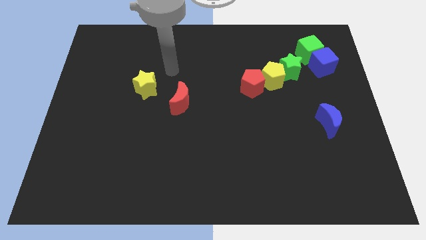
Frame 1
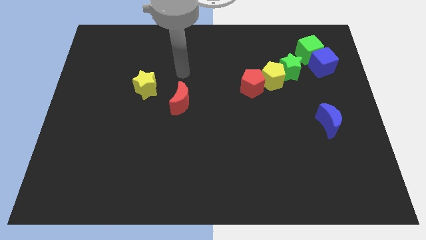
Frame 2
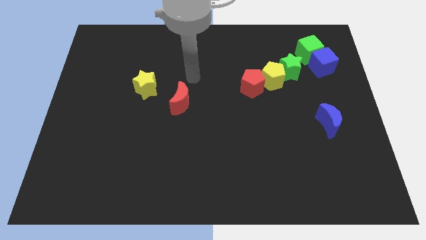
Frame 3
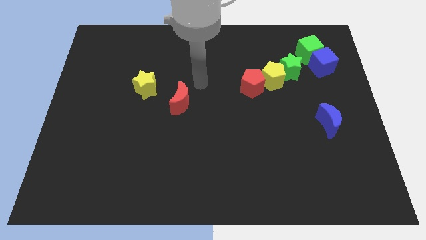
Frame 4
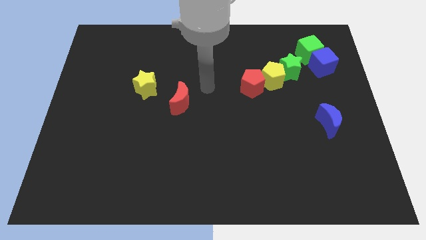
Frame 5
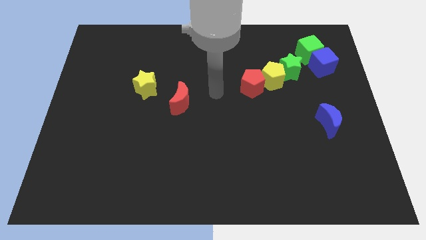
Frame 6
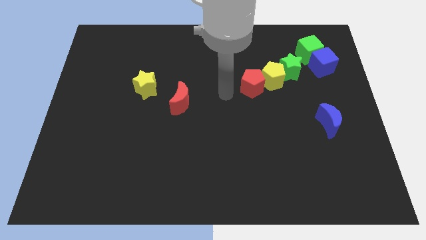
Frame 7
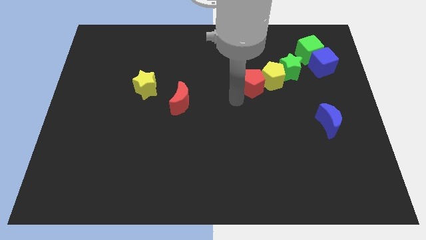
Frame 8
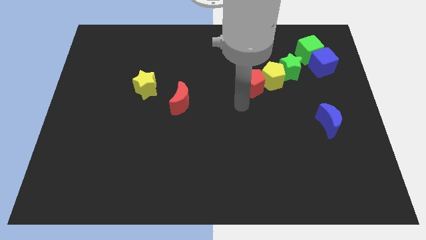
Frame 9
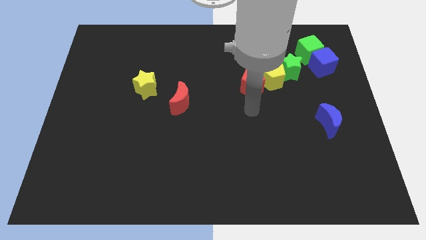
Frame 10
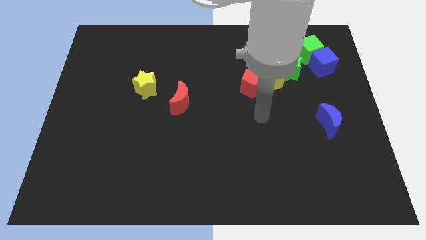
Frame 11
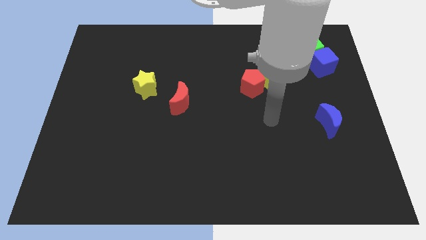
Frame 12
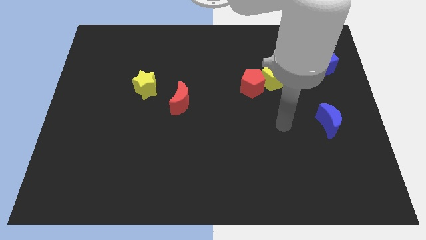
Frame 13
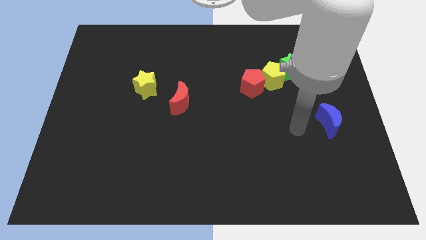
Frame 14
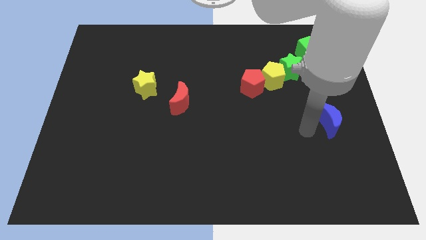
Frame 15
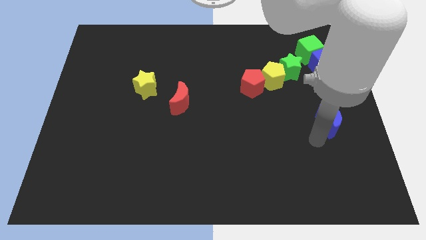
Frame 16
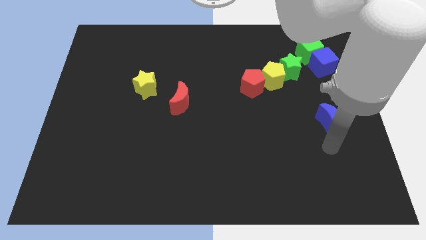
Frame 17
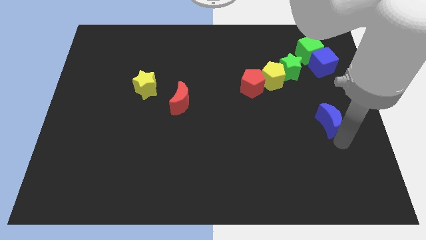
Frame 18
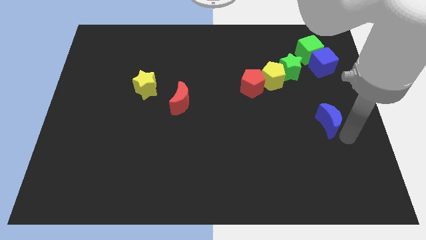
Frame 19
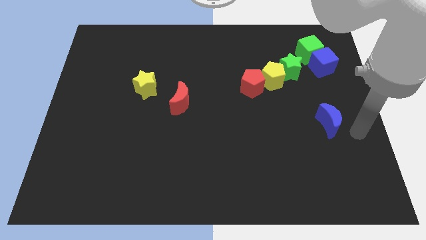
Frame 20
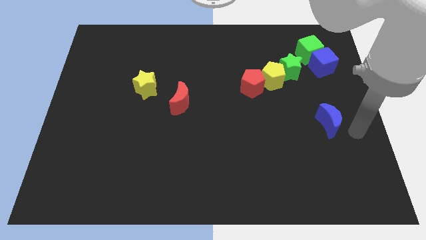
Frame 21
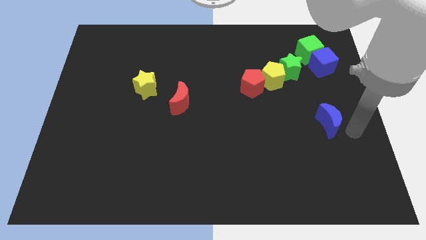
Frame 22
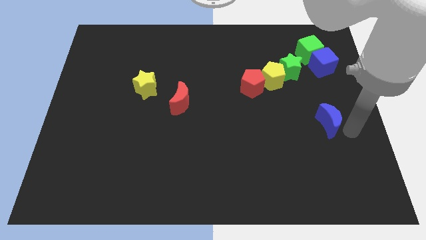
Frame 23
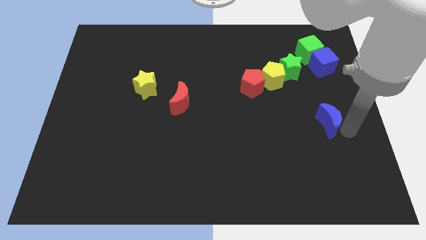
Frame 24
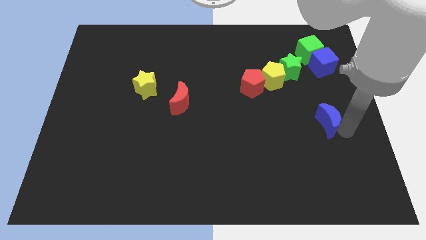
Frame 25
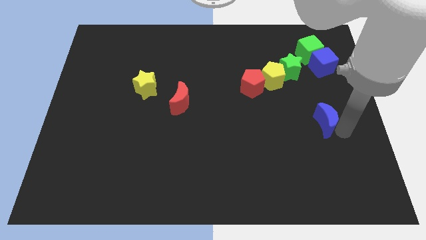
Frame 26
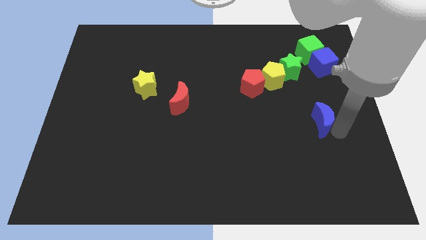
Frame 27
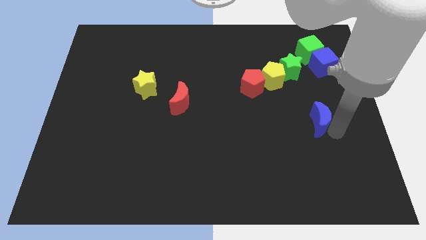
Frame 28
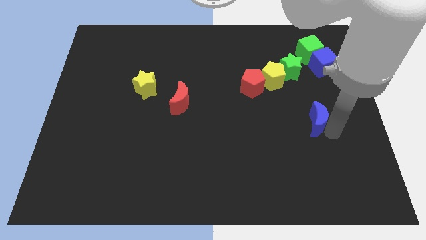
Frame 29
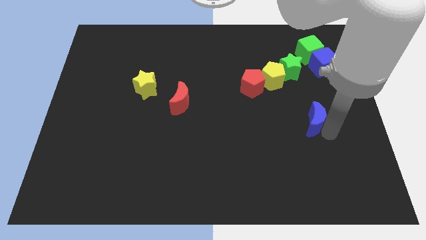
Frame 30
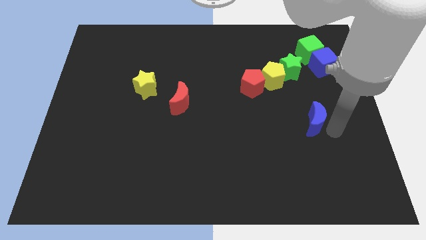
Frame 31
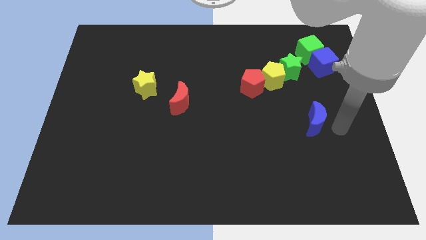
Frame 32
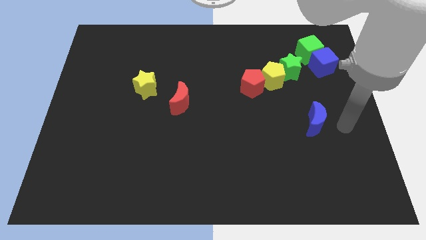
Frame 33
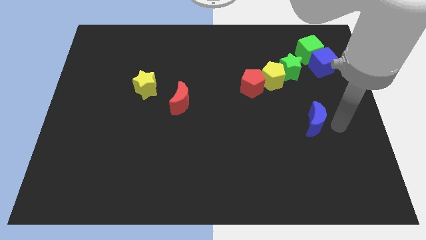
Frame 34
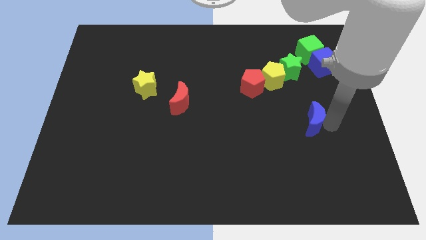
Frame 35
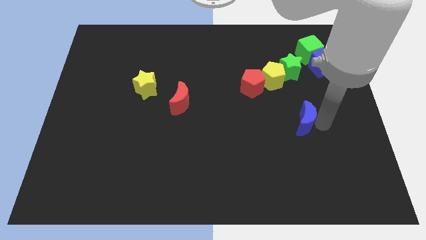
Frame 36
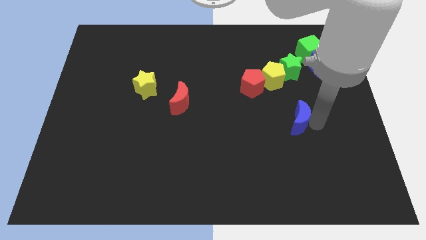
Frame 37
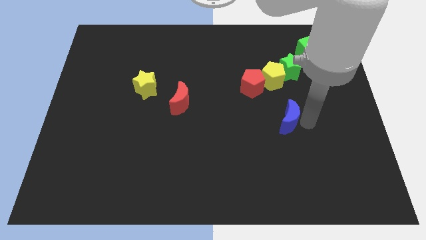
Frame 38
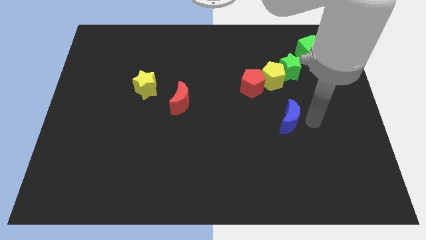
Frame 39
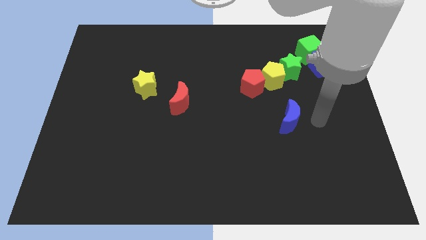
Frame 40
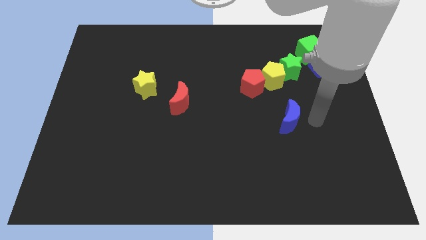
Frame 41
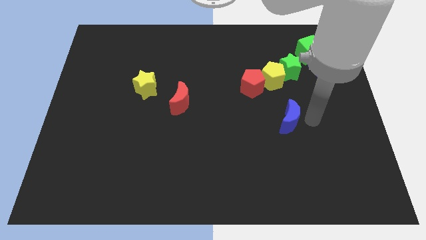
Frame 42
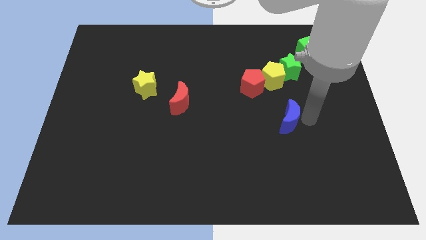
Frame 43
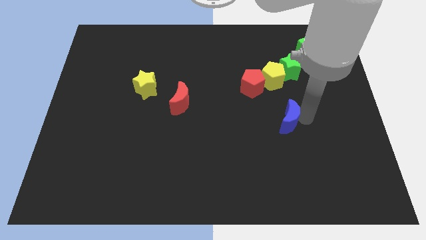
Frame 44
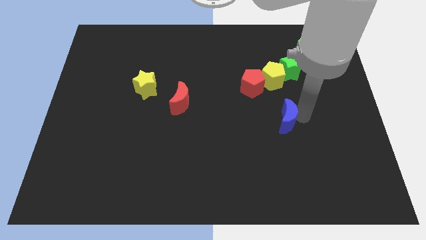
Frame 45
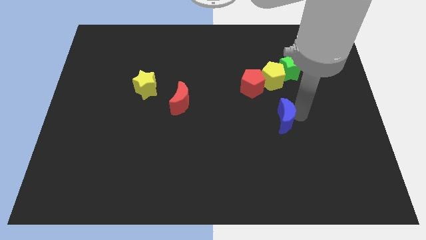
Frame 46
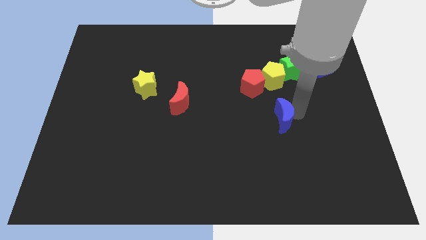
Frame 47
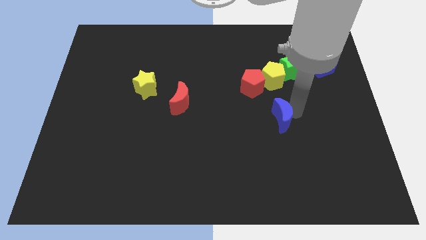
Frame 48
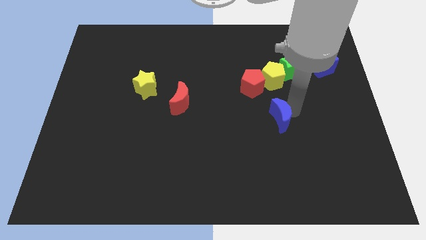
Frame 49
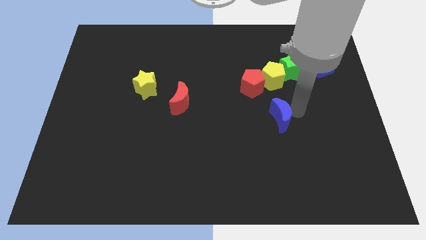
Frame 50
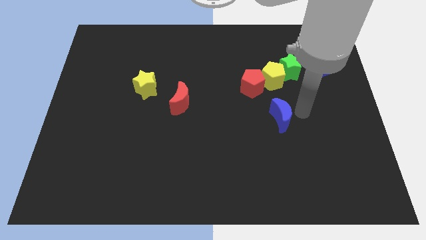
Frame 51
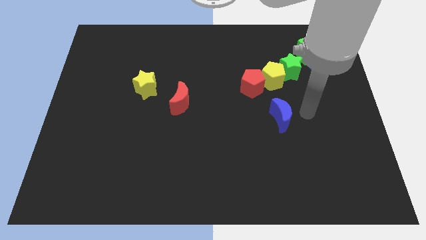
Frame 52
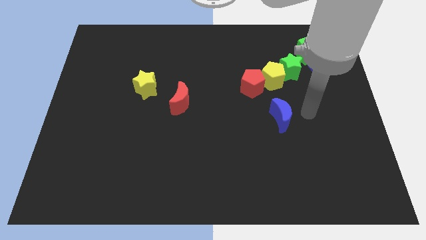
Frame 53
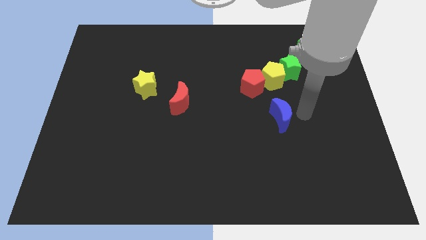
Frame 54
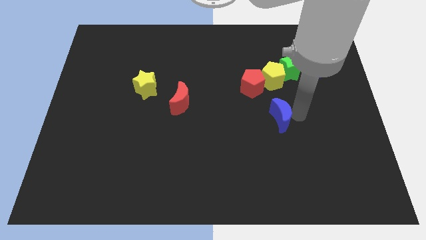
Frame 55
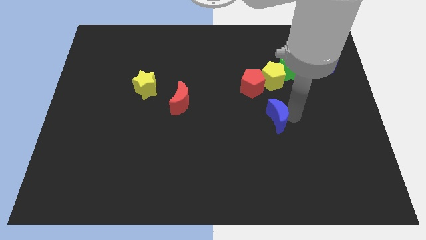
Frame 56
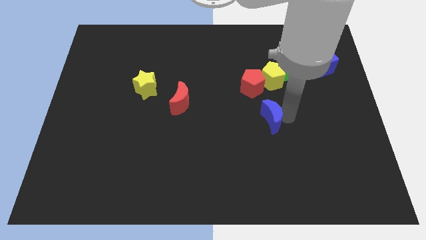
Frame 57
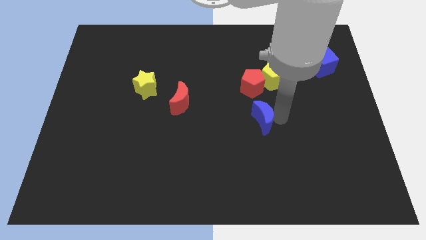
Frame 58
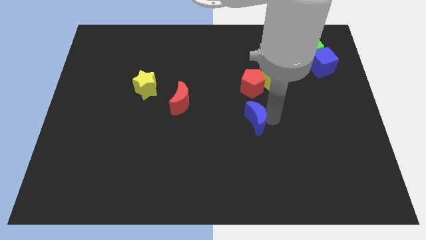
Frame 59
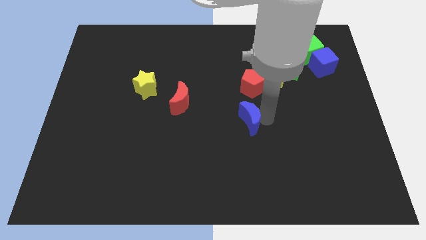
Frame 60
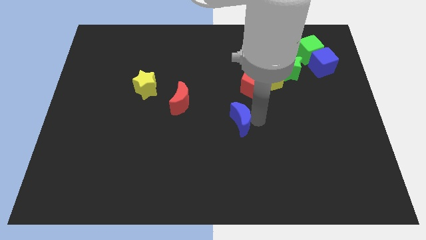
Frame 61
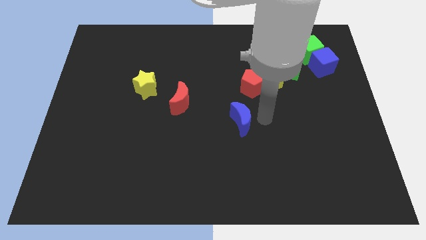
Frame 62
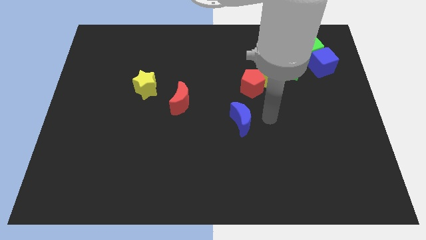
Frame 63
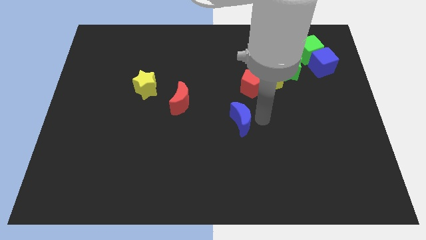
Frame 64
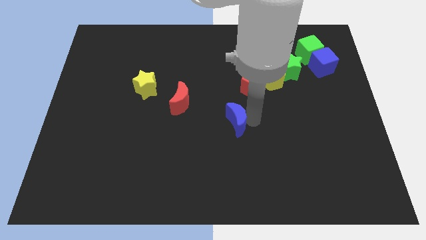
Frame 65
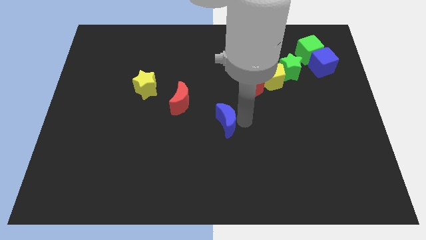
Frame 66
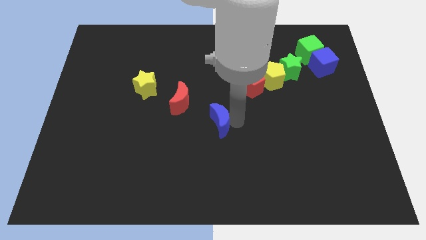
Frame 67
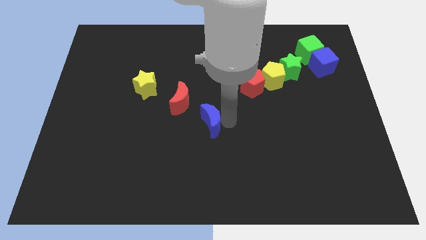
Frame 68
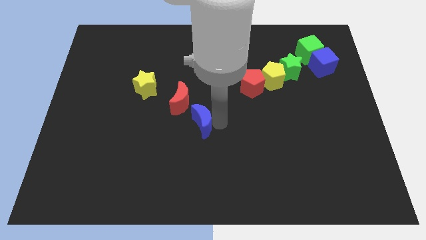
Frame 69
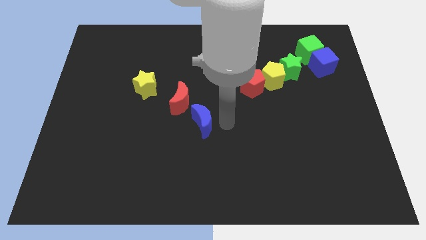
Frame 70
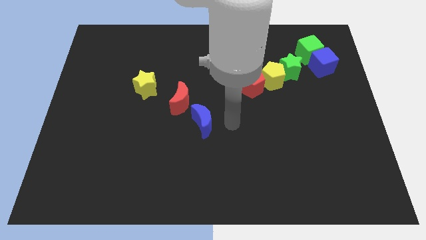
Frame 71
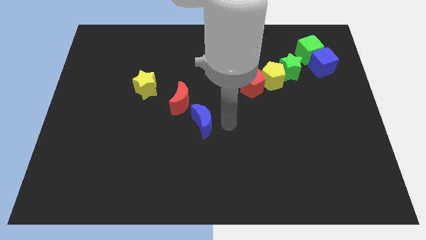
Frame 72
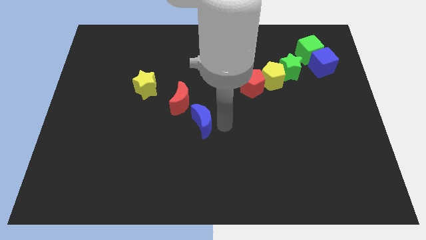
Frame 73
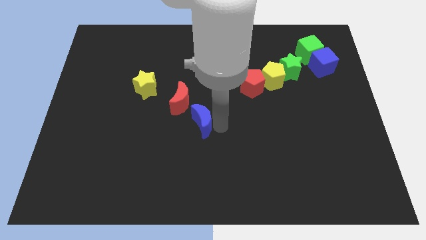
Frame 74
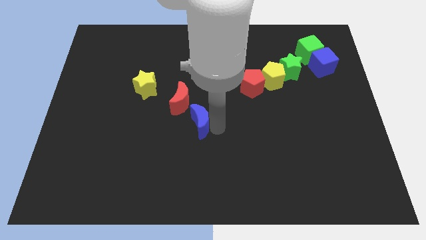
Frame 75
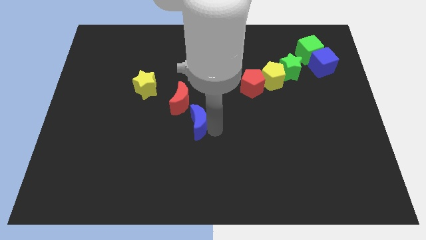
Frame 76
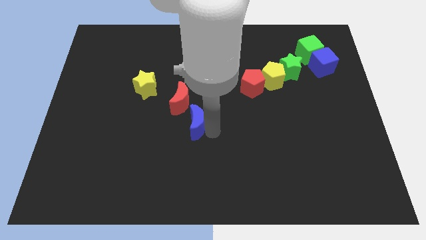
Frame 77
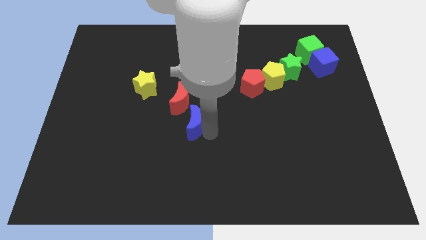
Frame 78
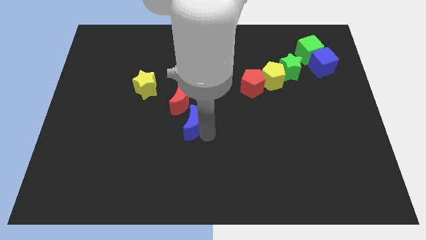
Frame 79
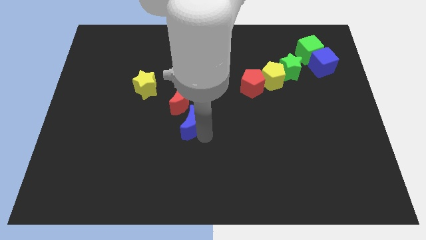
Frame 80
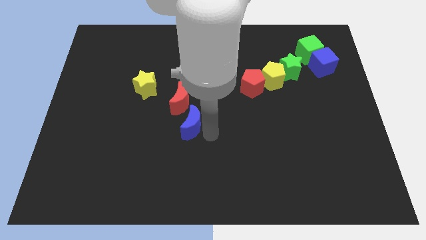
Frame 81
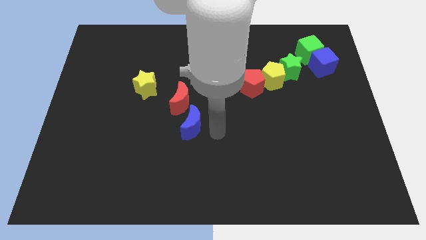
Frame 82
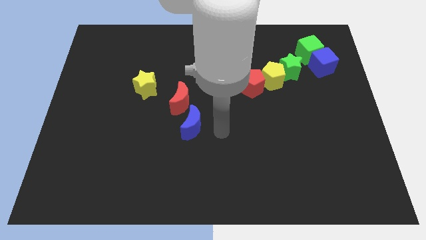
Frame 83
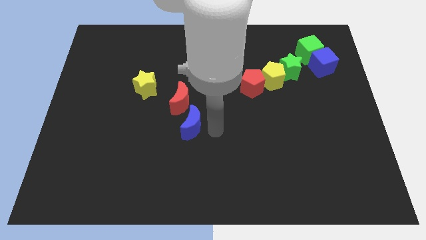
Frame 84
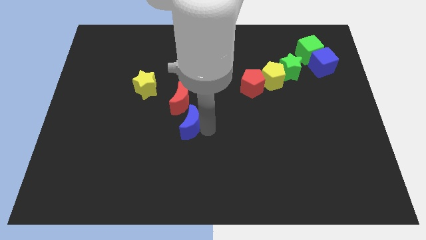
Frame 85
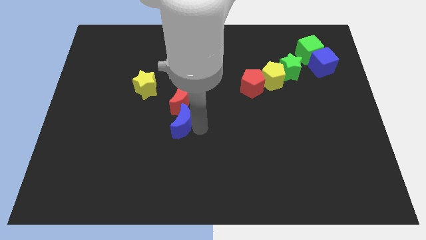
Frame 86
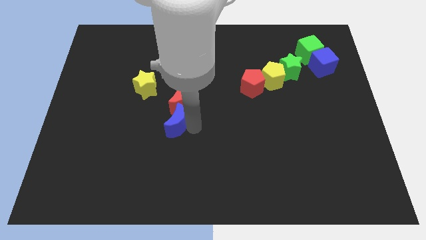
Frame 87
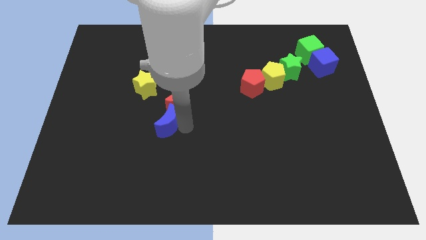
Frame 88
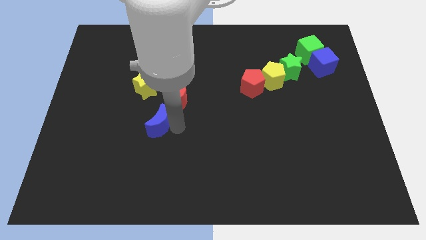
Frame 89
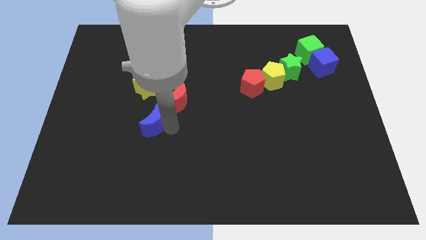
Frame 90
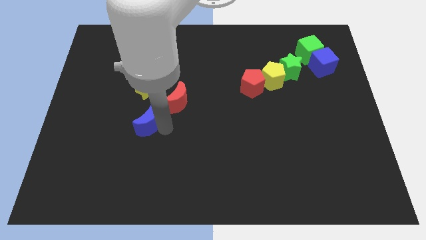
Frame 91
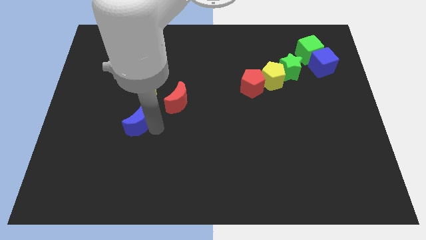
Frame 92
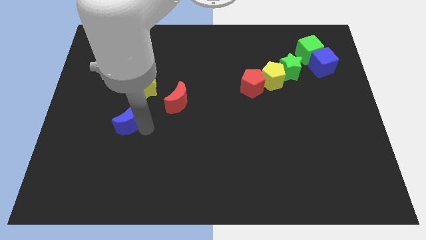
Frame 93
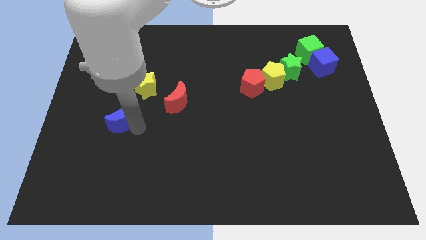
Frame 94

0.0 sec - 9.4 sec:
move the blue moon diagonally down and to the left of the yellow star
